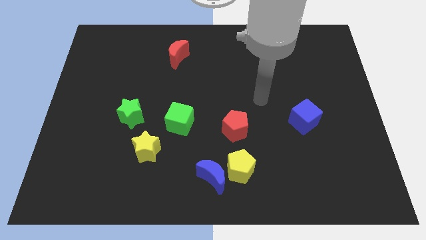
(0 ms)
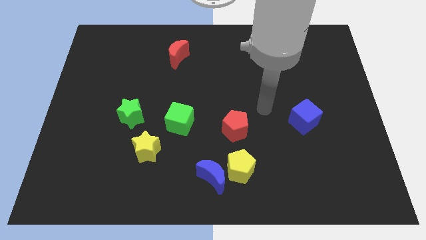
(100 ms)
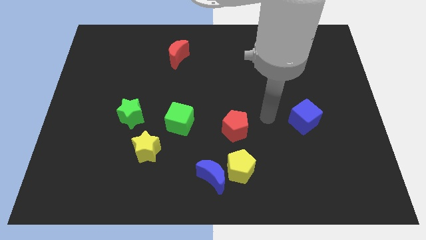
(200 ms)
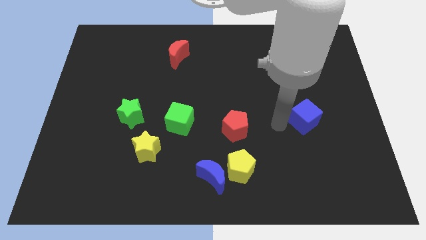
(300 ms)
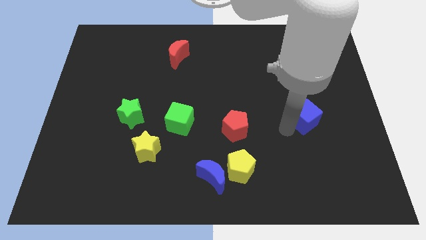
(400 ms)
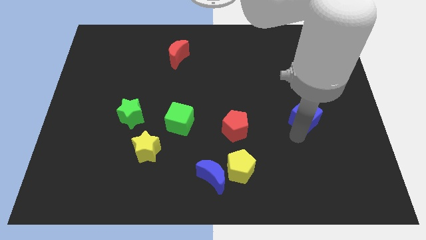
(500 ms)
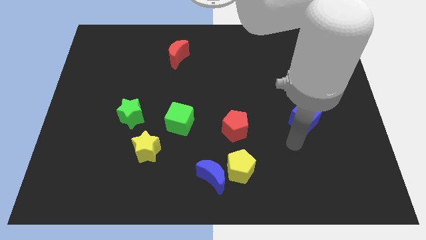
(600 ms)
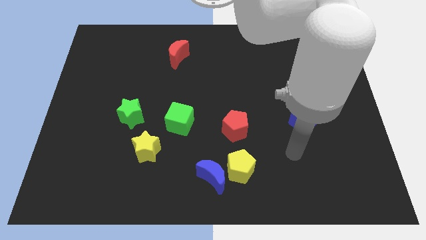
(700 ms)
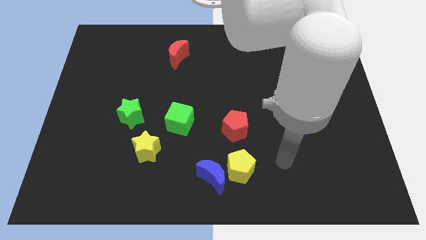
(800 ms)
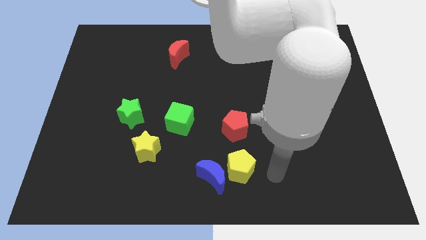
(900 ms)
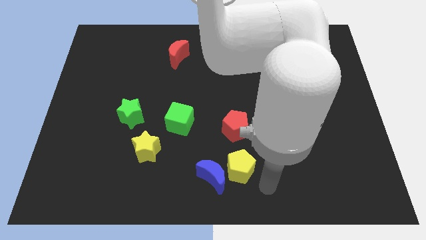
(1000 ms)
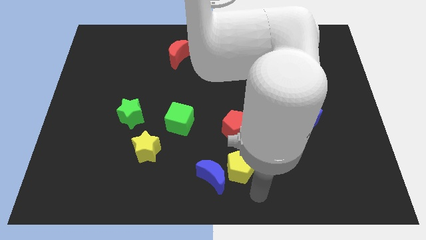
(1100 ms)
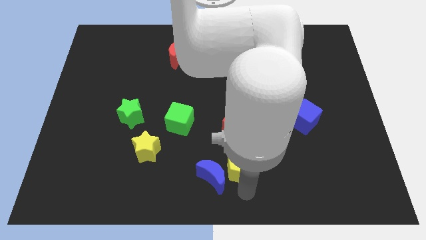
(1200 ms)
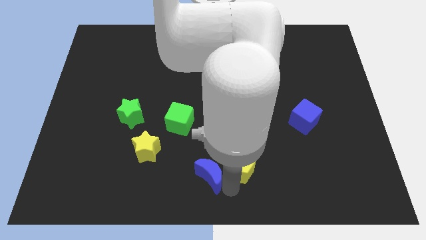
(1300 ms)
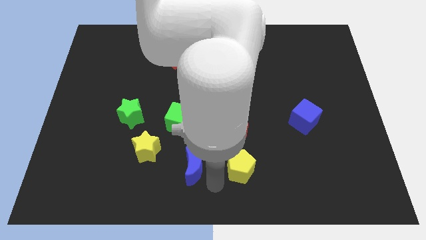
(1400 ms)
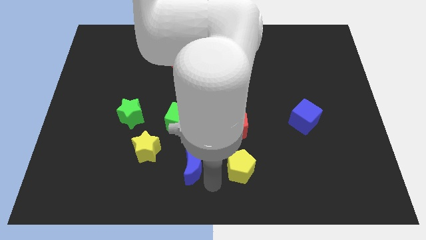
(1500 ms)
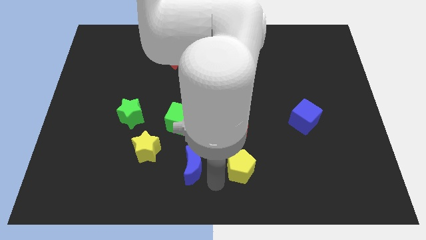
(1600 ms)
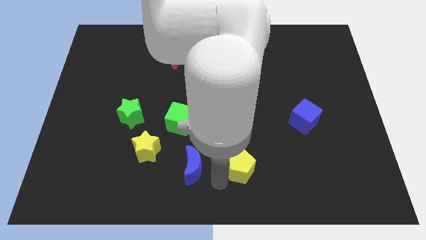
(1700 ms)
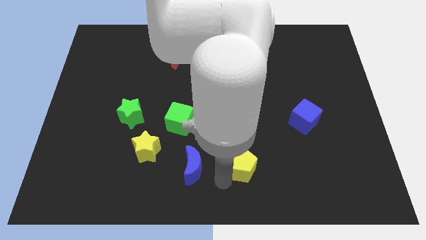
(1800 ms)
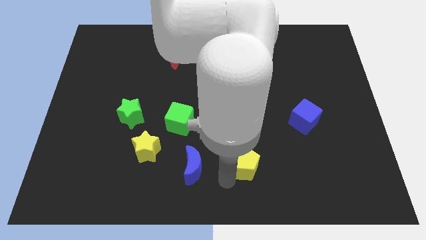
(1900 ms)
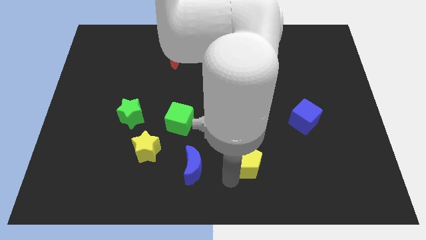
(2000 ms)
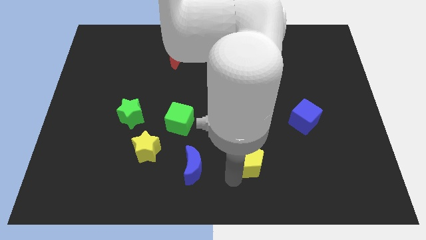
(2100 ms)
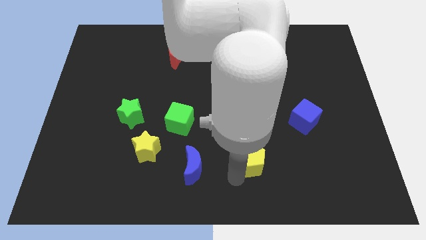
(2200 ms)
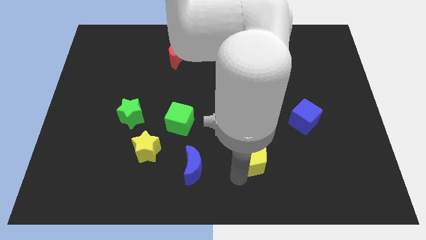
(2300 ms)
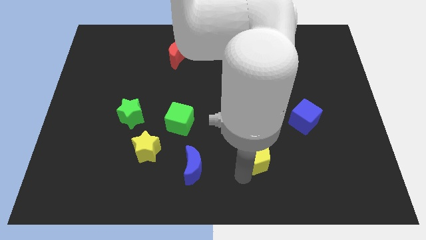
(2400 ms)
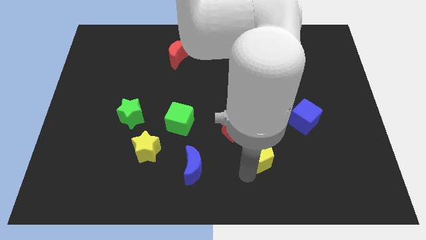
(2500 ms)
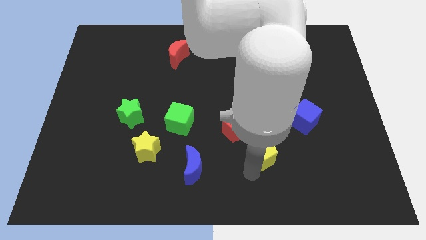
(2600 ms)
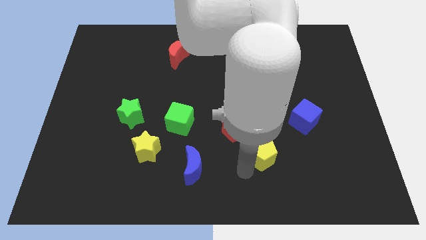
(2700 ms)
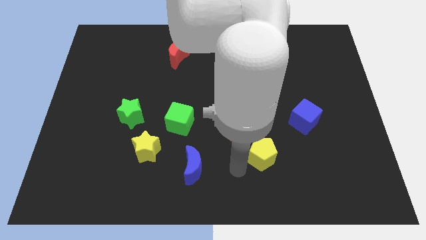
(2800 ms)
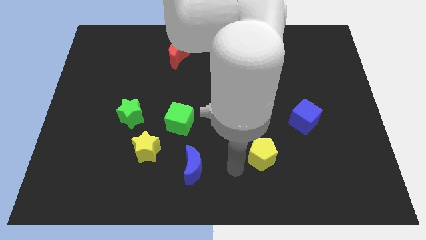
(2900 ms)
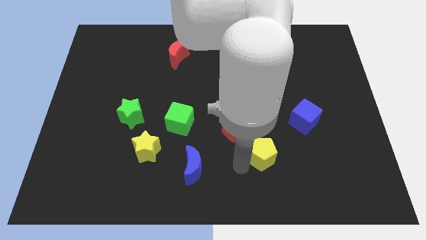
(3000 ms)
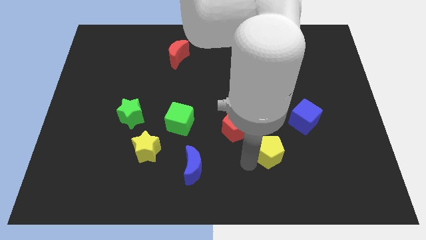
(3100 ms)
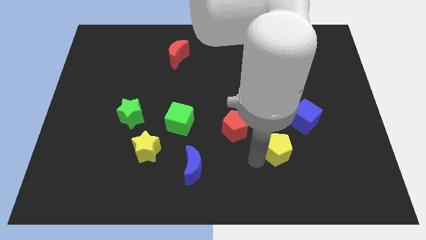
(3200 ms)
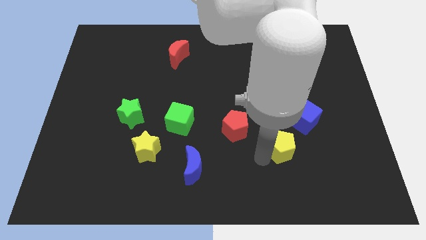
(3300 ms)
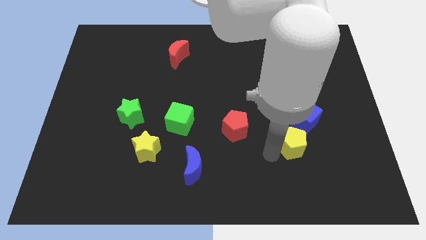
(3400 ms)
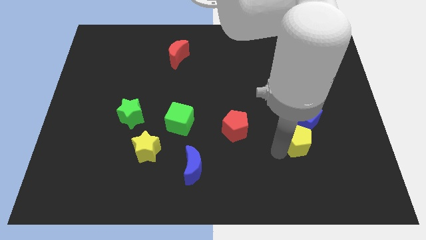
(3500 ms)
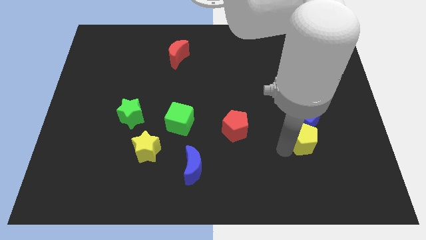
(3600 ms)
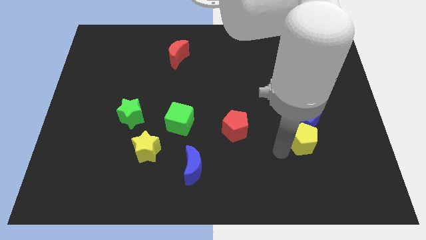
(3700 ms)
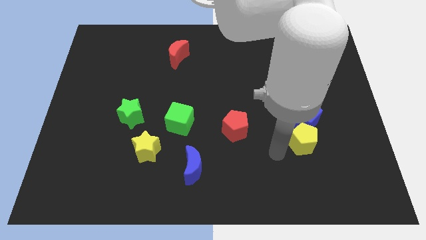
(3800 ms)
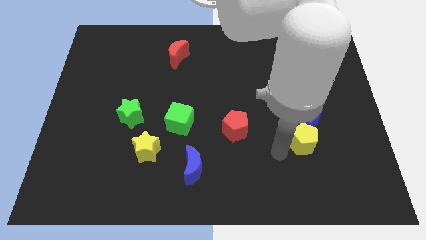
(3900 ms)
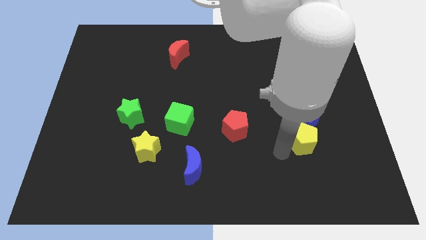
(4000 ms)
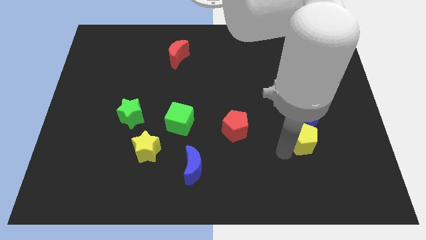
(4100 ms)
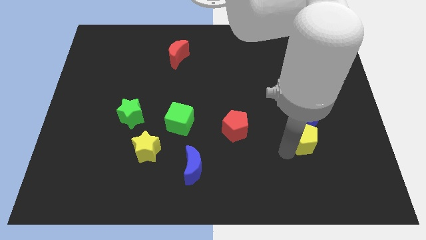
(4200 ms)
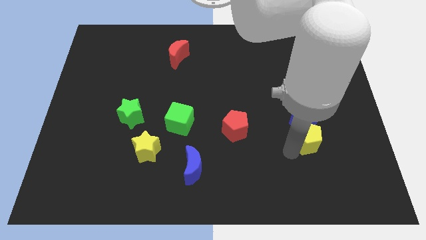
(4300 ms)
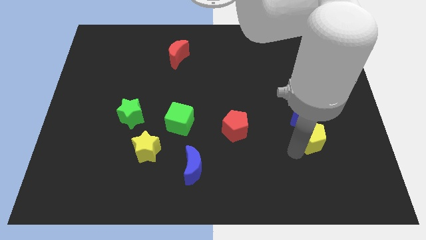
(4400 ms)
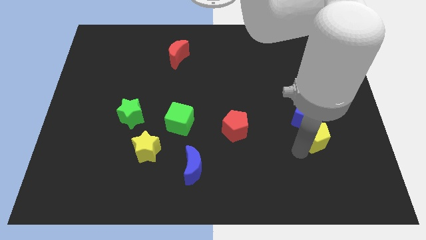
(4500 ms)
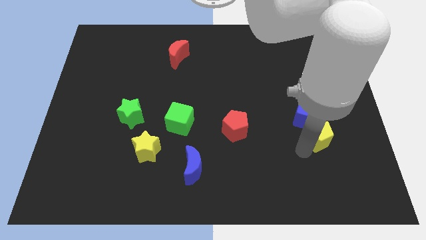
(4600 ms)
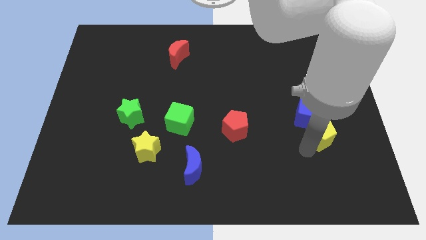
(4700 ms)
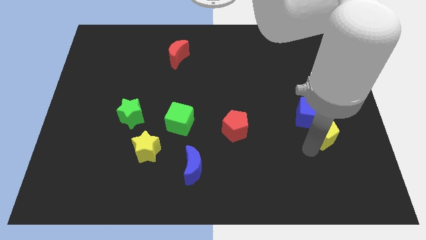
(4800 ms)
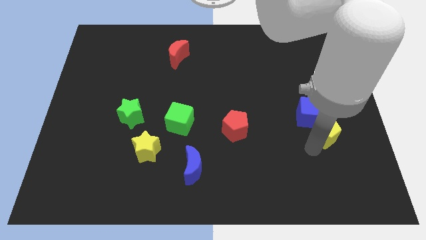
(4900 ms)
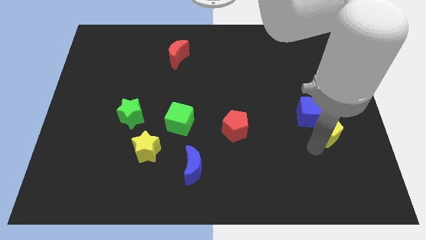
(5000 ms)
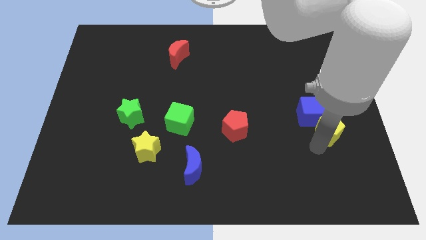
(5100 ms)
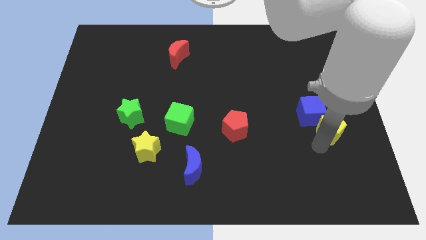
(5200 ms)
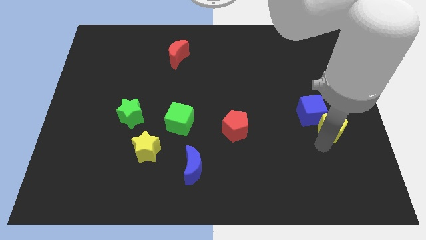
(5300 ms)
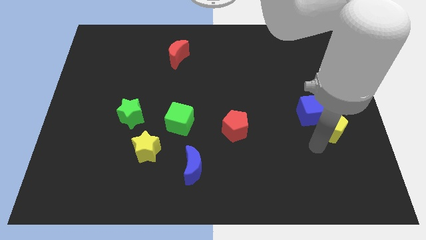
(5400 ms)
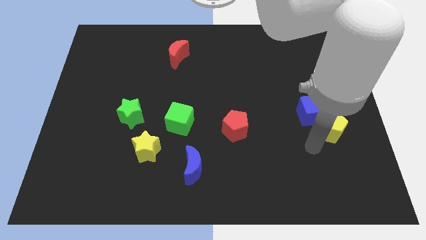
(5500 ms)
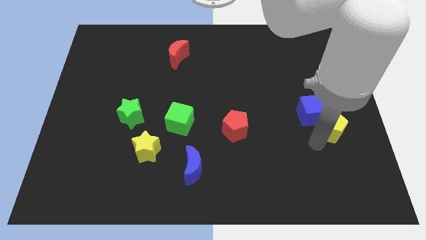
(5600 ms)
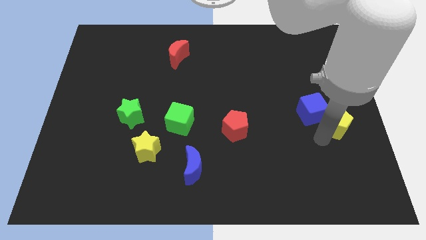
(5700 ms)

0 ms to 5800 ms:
move the yellow pentagon to the right side
